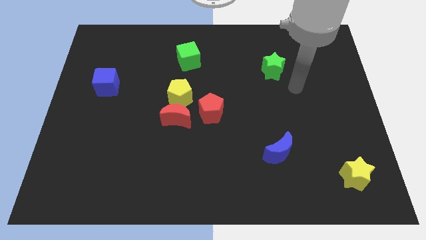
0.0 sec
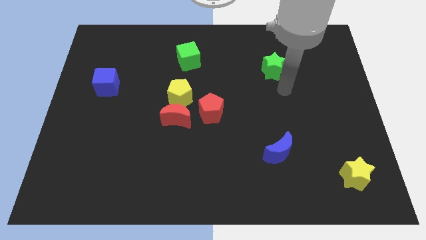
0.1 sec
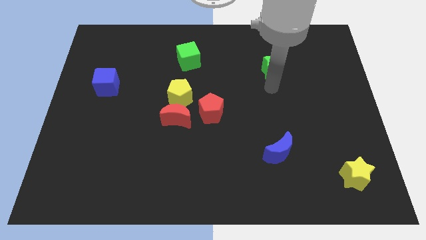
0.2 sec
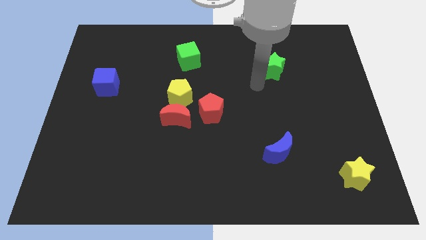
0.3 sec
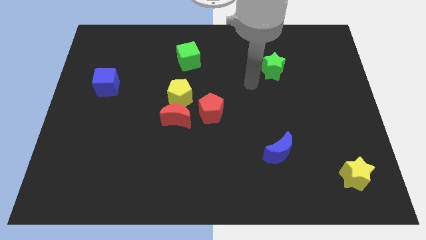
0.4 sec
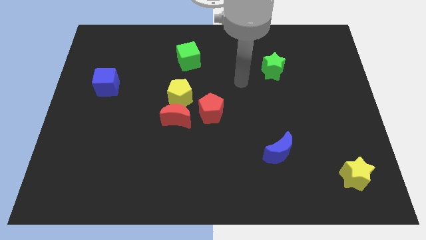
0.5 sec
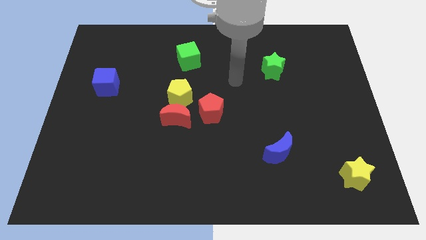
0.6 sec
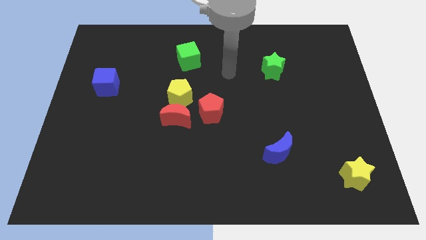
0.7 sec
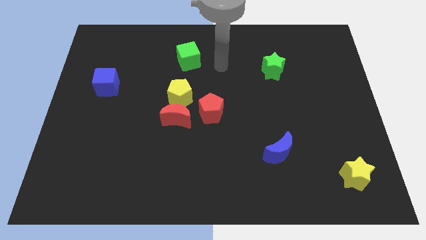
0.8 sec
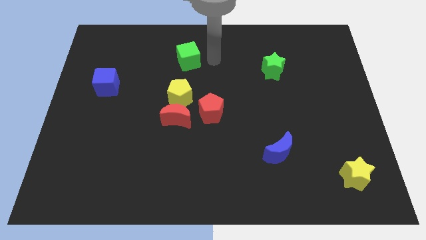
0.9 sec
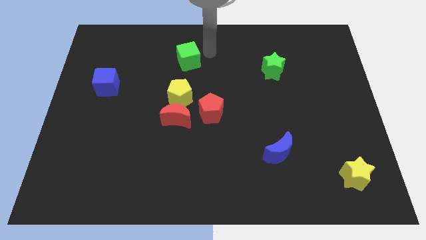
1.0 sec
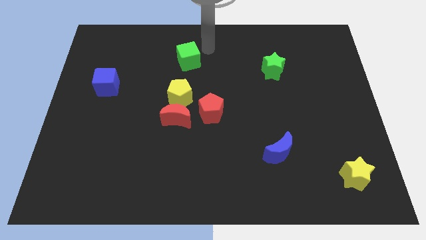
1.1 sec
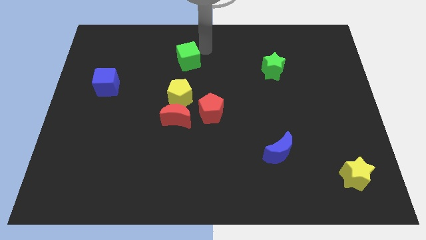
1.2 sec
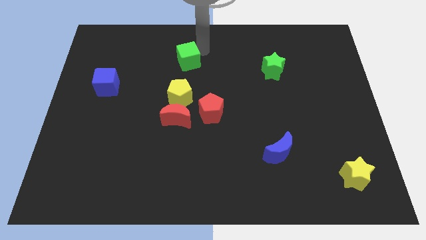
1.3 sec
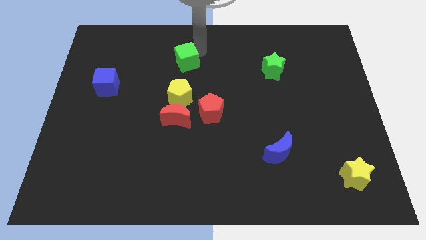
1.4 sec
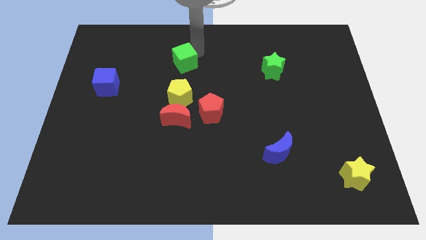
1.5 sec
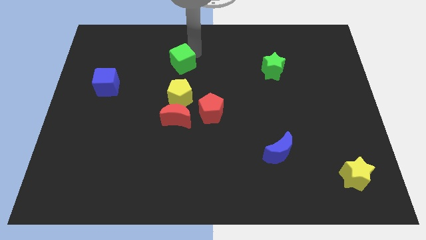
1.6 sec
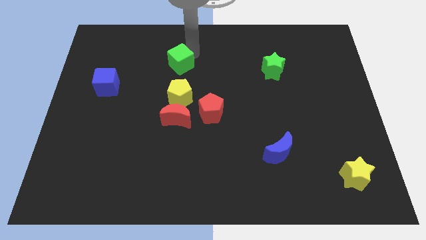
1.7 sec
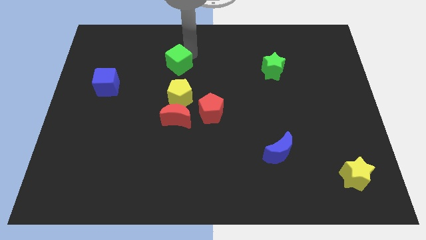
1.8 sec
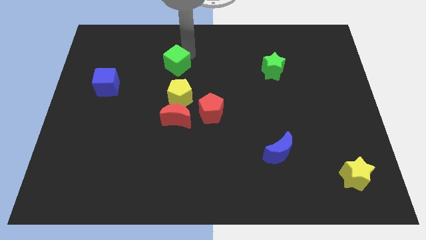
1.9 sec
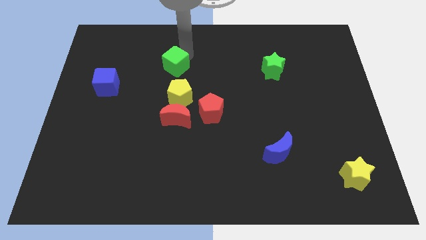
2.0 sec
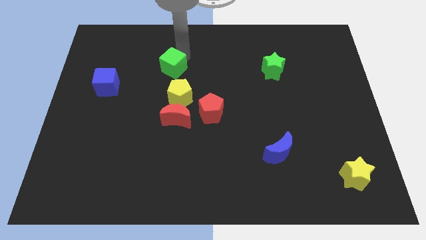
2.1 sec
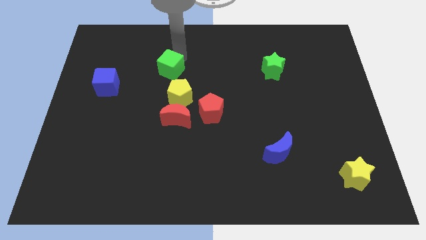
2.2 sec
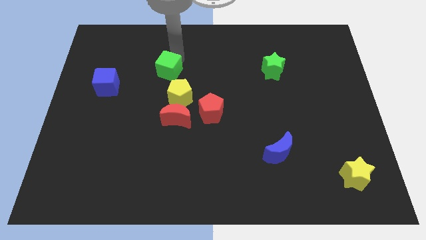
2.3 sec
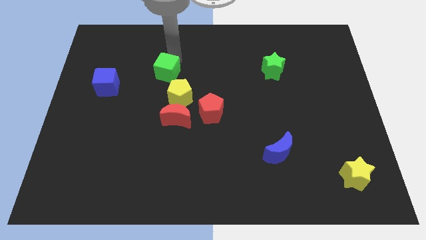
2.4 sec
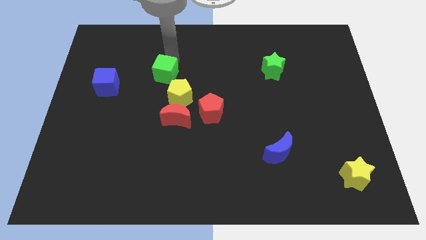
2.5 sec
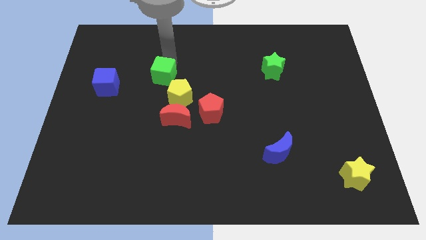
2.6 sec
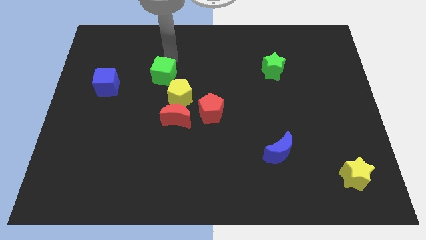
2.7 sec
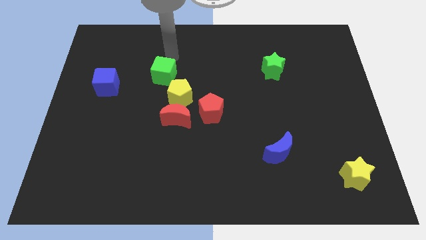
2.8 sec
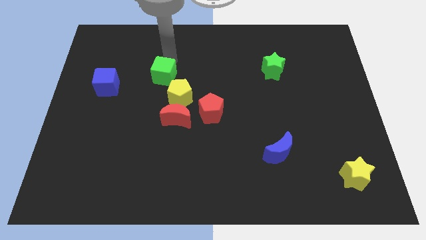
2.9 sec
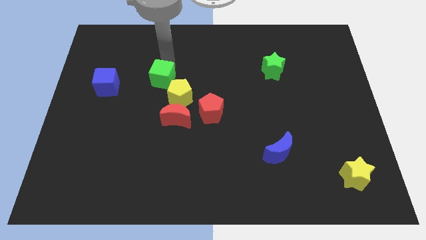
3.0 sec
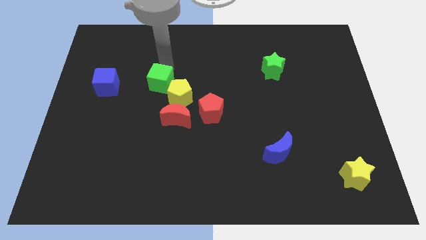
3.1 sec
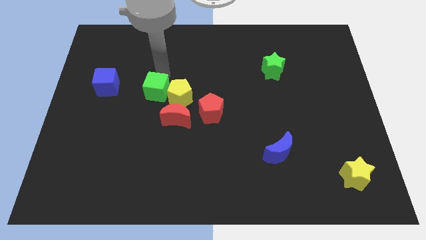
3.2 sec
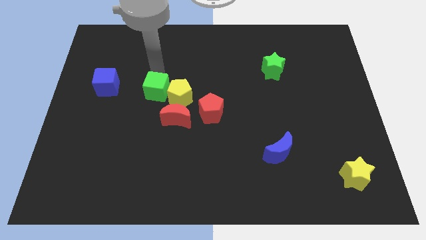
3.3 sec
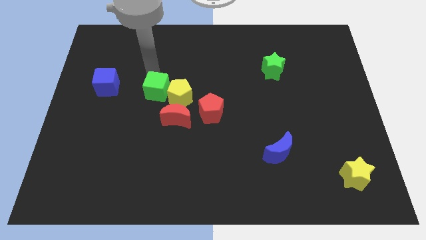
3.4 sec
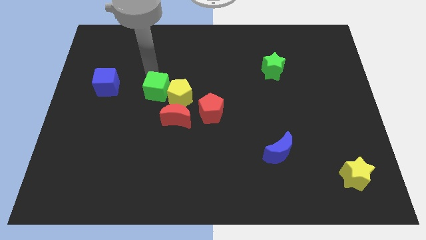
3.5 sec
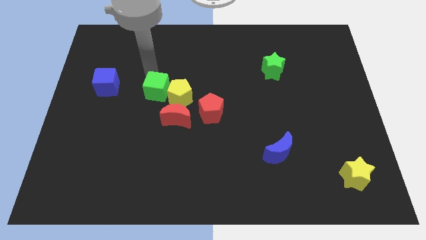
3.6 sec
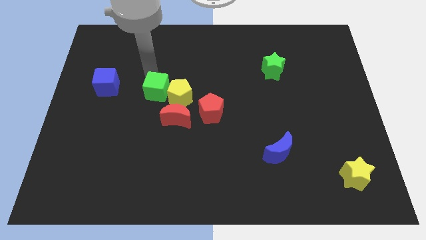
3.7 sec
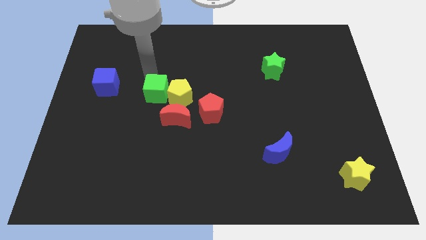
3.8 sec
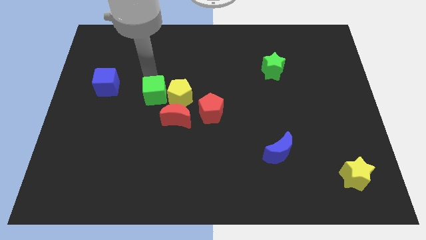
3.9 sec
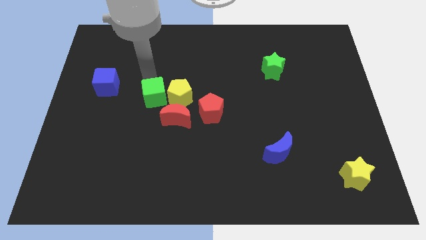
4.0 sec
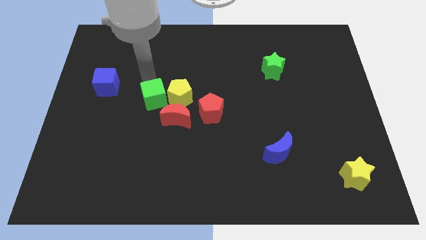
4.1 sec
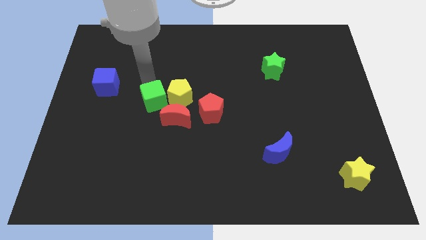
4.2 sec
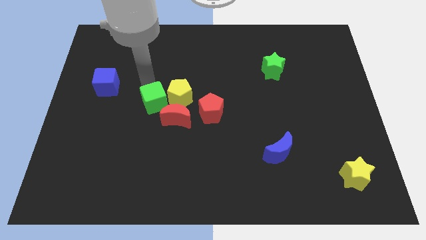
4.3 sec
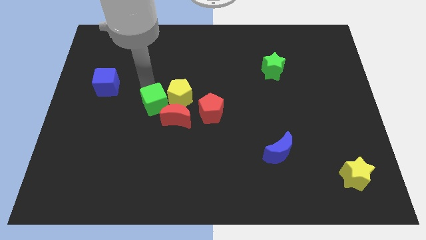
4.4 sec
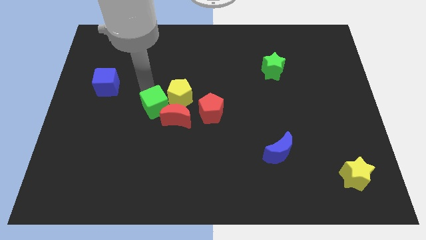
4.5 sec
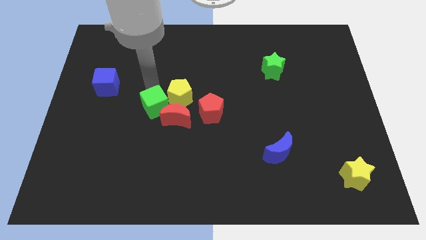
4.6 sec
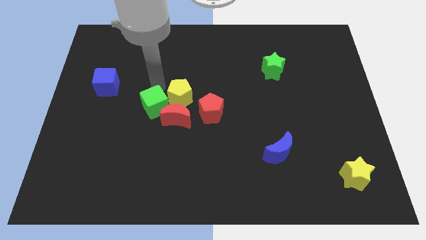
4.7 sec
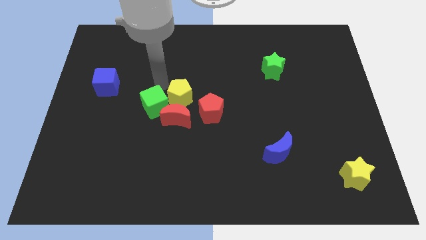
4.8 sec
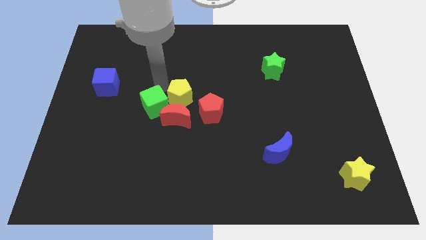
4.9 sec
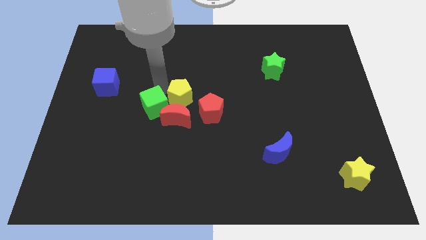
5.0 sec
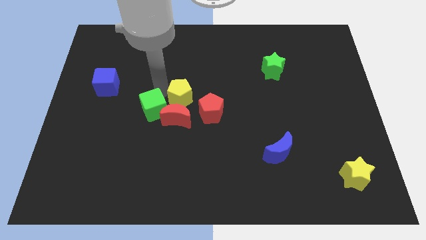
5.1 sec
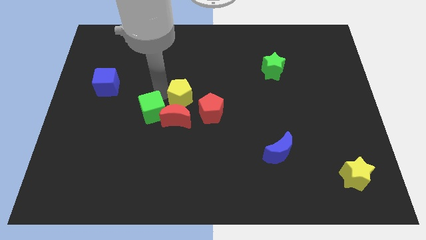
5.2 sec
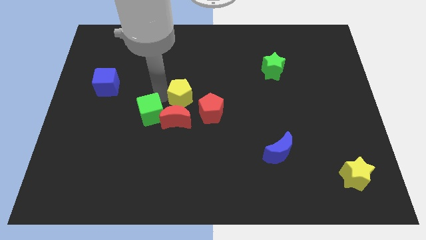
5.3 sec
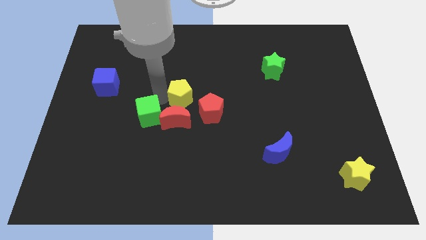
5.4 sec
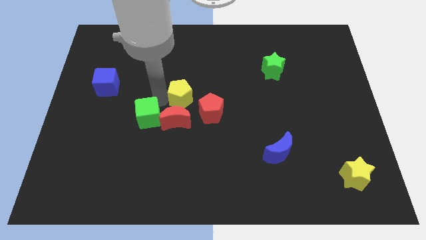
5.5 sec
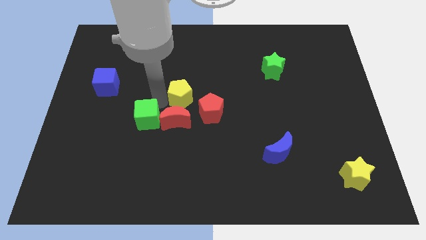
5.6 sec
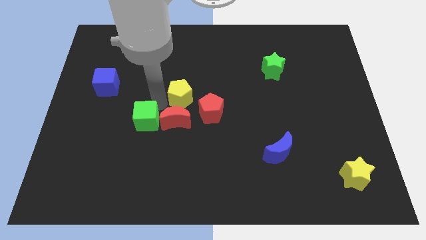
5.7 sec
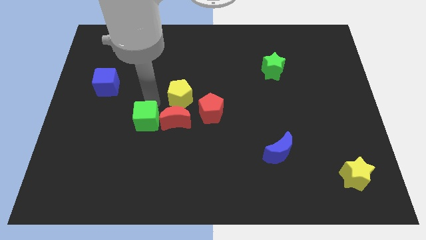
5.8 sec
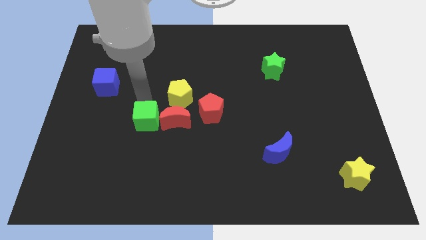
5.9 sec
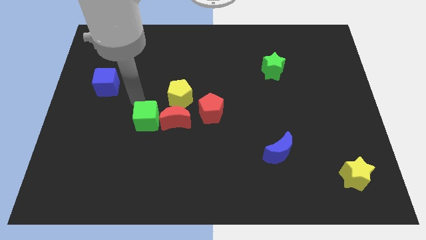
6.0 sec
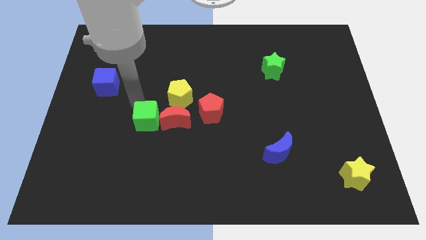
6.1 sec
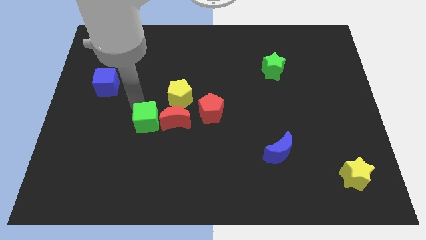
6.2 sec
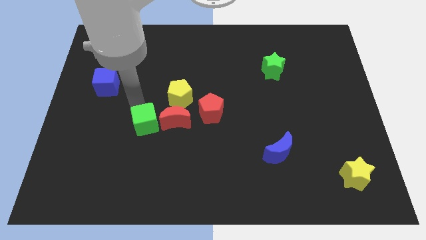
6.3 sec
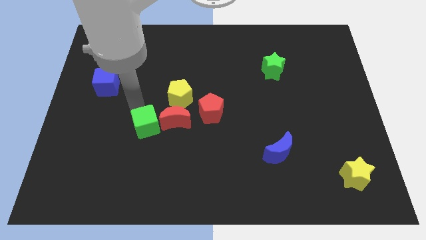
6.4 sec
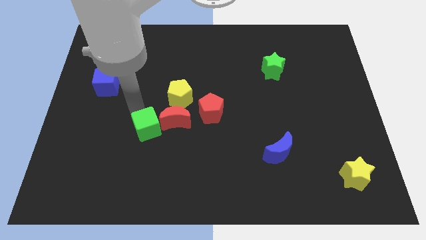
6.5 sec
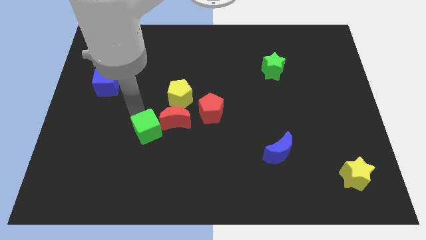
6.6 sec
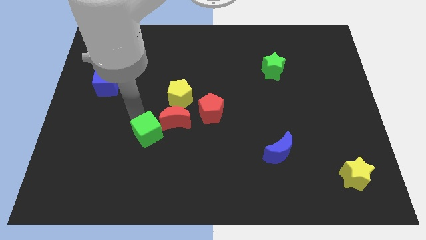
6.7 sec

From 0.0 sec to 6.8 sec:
move the green cube downwards

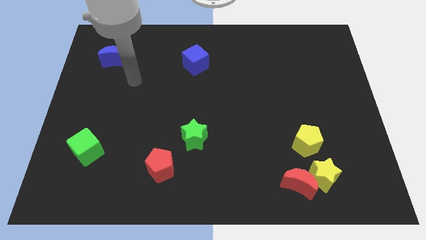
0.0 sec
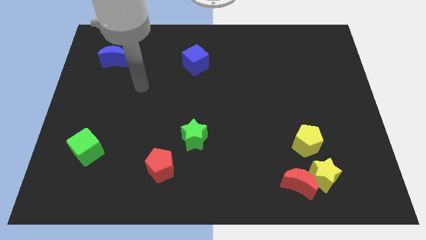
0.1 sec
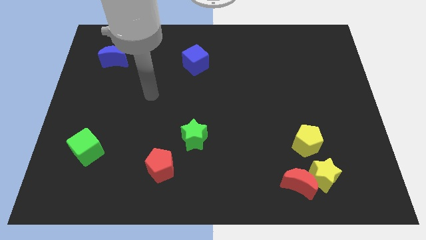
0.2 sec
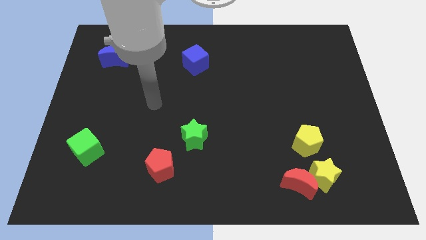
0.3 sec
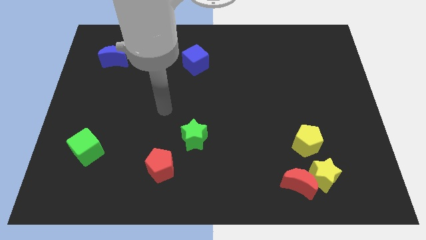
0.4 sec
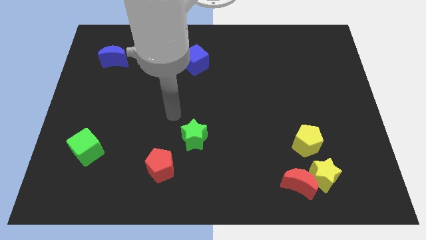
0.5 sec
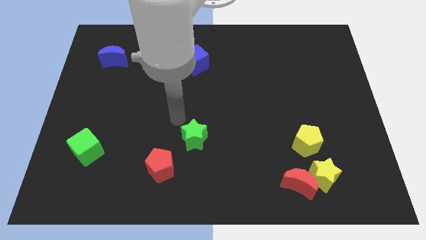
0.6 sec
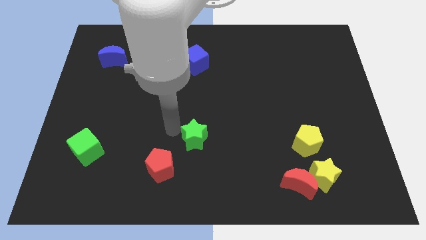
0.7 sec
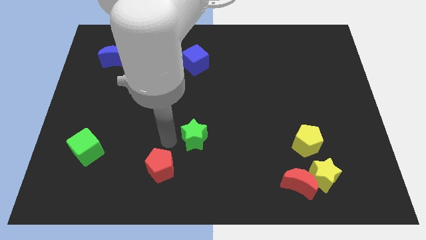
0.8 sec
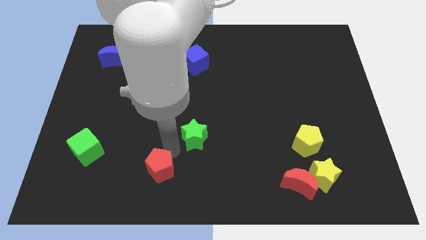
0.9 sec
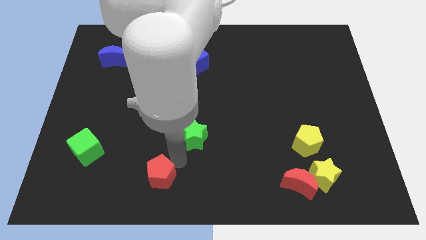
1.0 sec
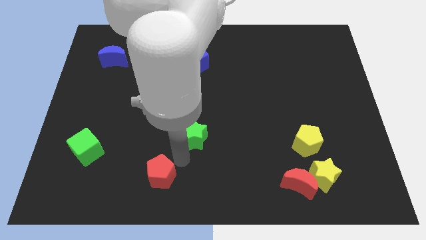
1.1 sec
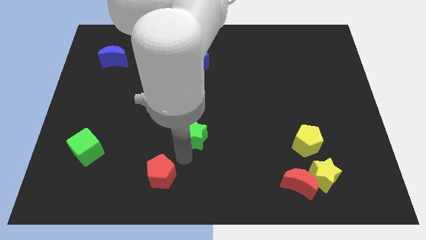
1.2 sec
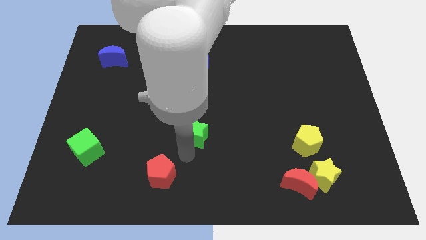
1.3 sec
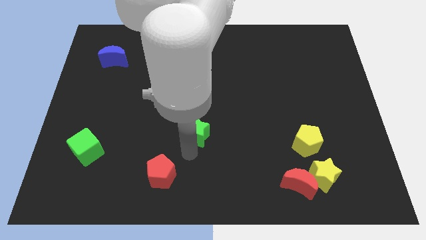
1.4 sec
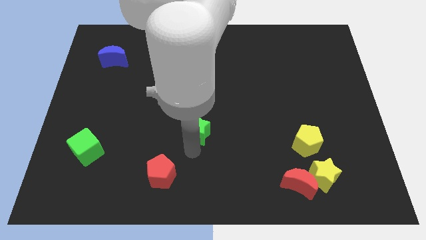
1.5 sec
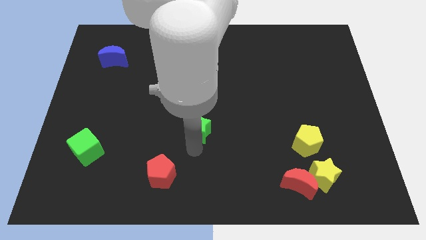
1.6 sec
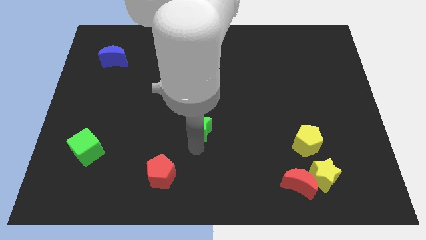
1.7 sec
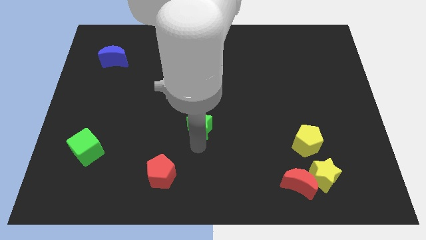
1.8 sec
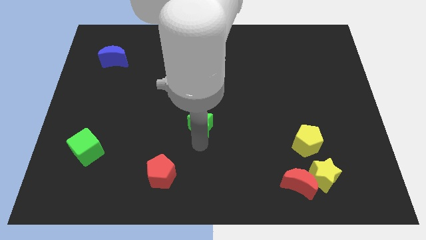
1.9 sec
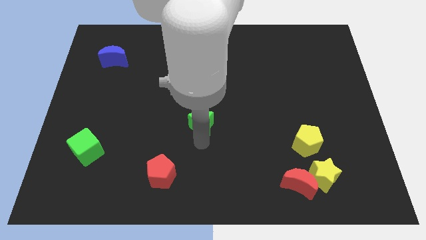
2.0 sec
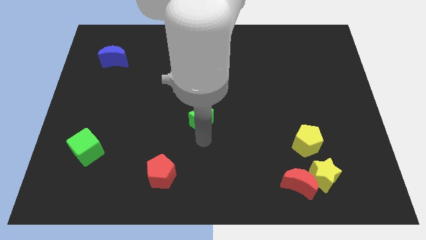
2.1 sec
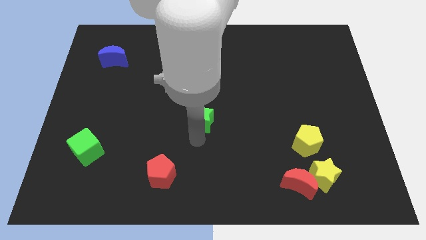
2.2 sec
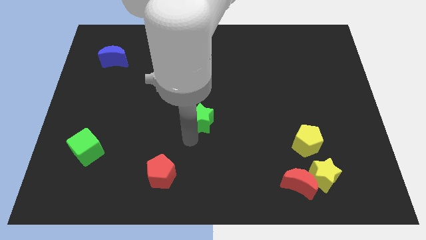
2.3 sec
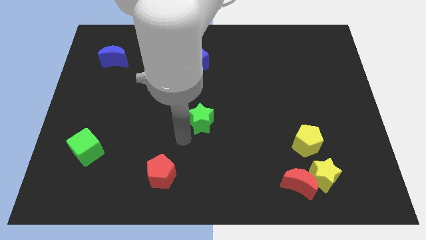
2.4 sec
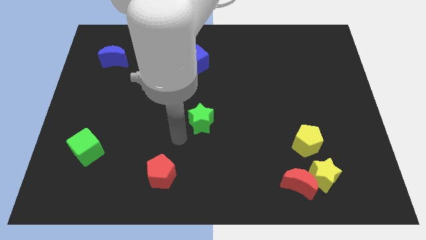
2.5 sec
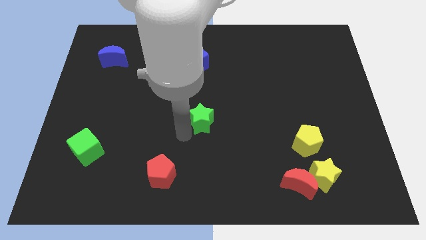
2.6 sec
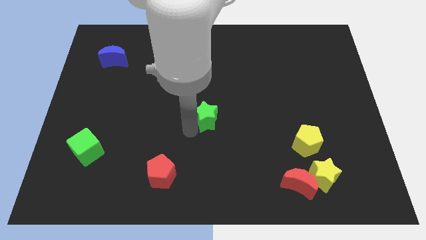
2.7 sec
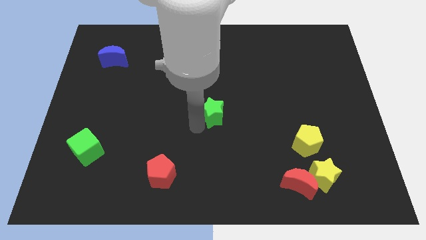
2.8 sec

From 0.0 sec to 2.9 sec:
push the green star a bit diagonally upwards and to the right
